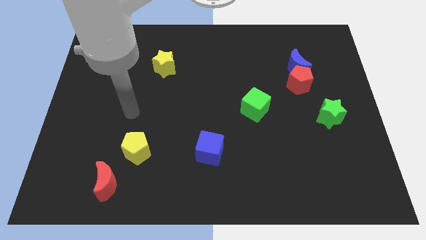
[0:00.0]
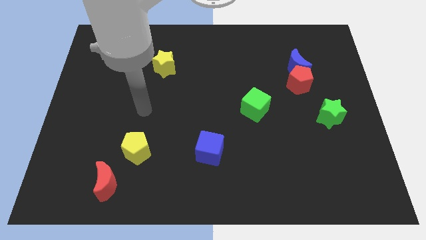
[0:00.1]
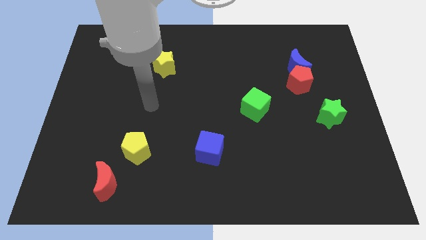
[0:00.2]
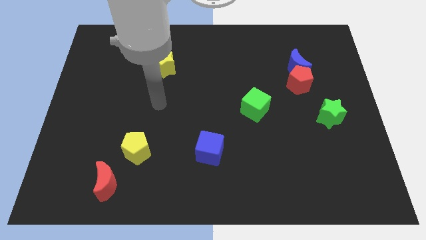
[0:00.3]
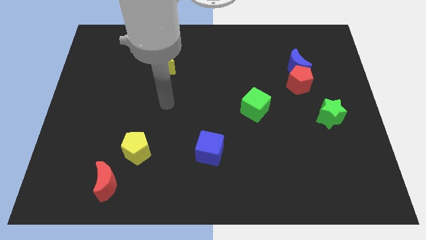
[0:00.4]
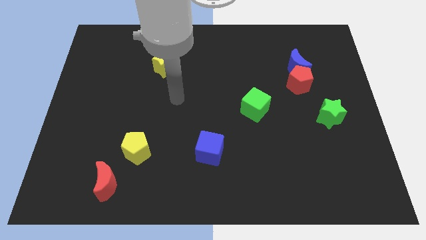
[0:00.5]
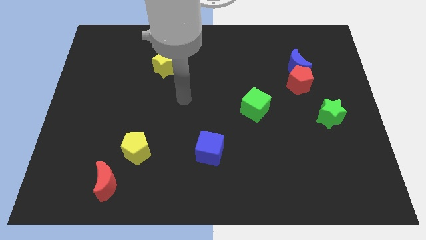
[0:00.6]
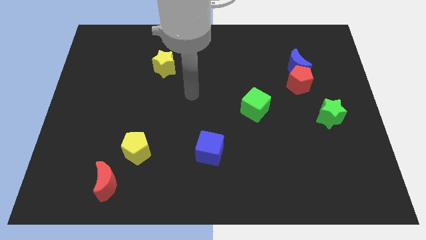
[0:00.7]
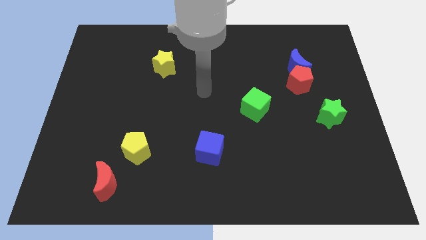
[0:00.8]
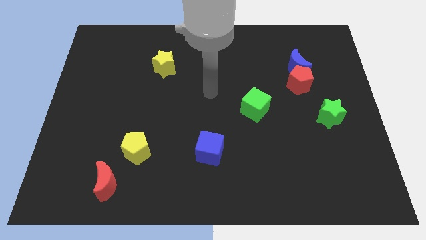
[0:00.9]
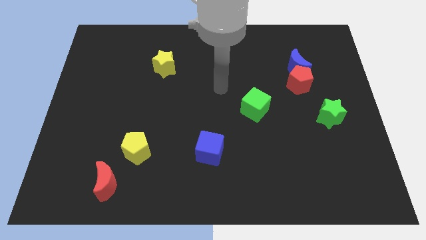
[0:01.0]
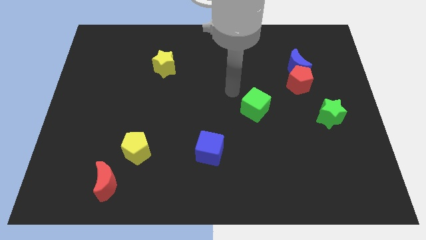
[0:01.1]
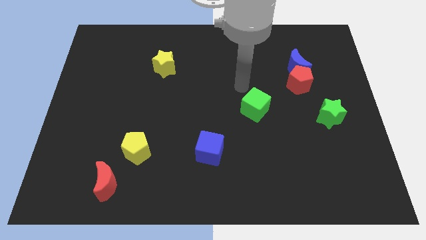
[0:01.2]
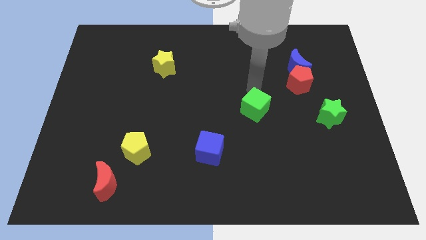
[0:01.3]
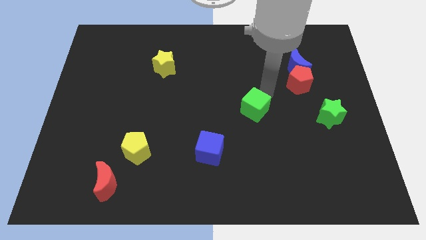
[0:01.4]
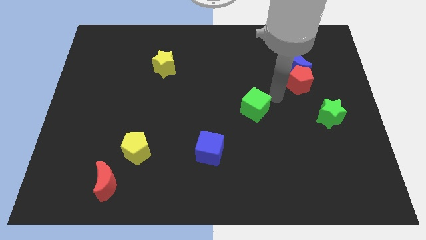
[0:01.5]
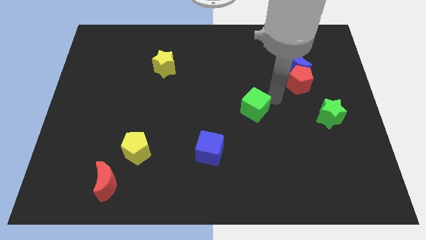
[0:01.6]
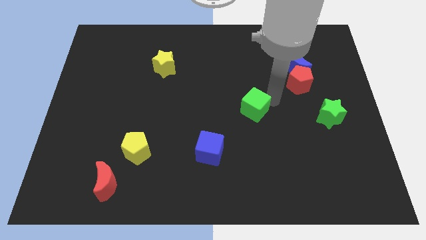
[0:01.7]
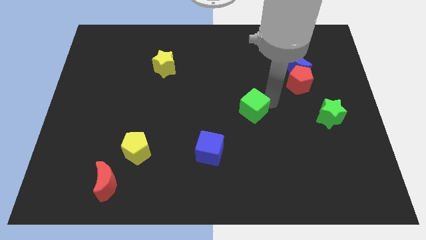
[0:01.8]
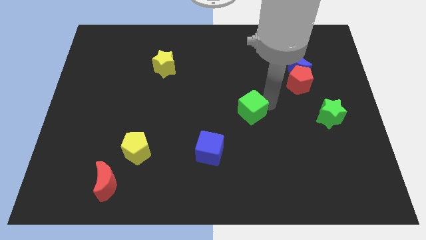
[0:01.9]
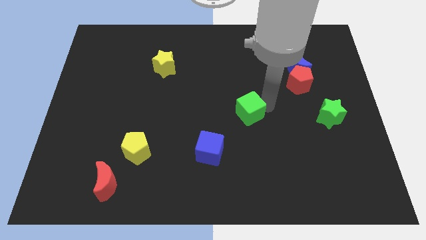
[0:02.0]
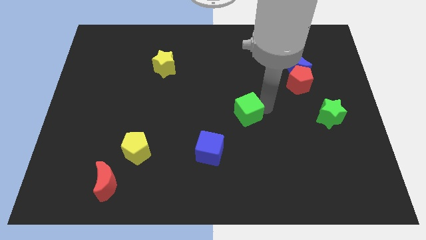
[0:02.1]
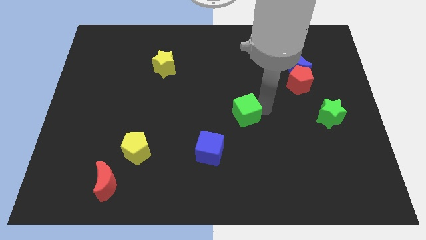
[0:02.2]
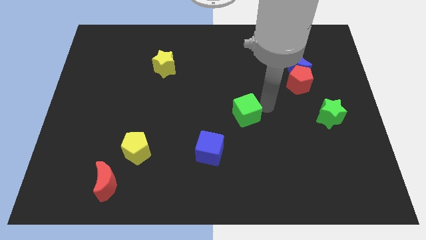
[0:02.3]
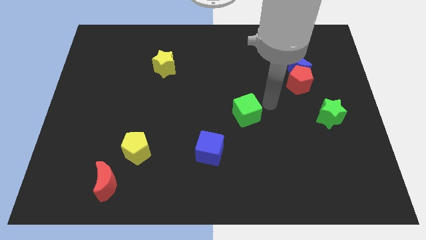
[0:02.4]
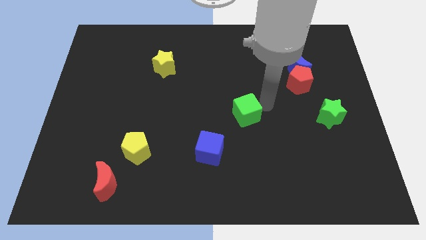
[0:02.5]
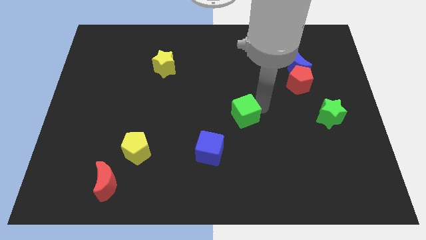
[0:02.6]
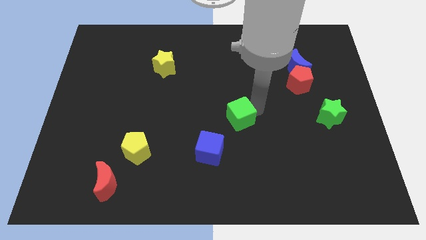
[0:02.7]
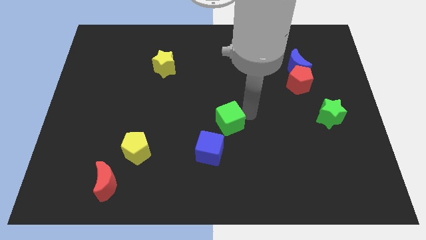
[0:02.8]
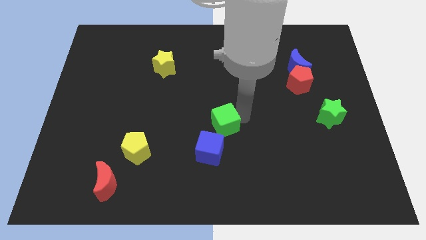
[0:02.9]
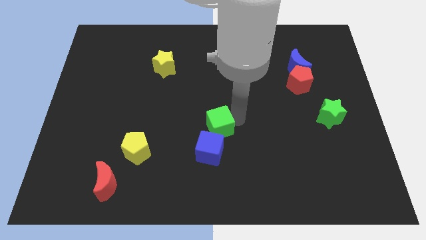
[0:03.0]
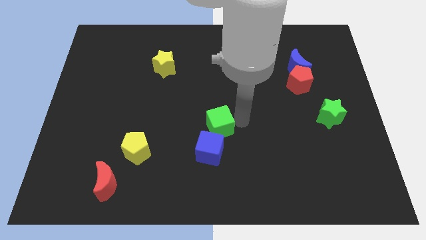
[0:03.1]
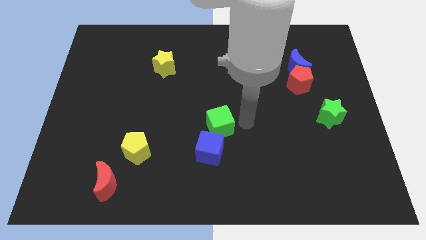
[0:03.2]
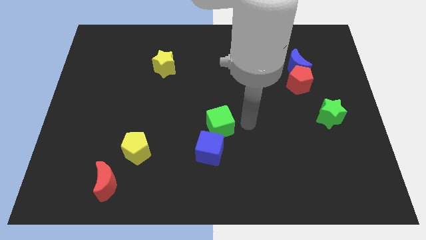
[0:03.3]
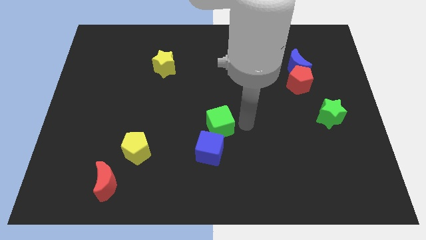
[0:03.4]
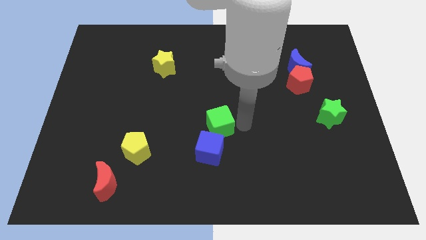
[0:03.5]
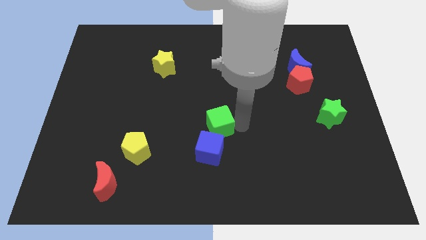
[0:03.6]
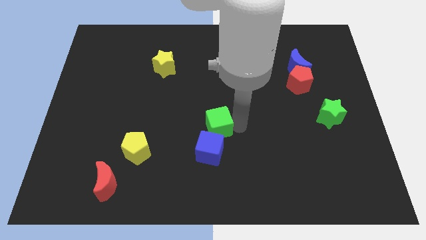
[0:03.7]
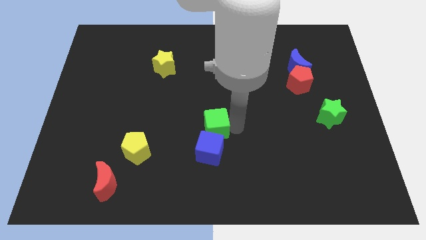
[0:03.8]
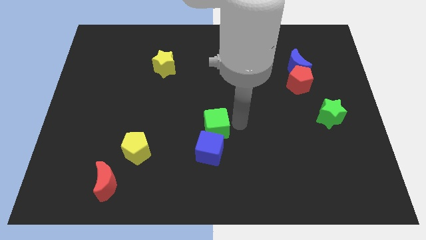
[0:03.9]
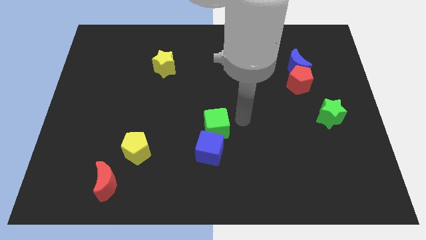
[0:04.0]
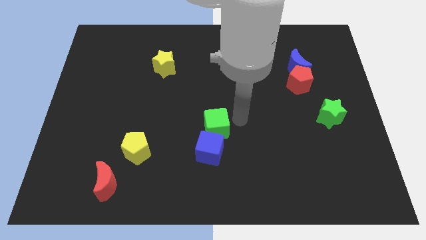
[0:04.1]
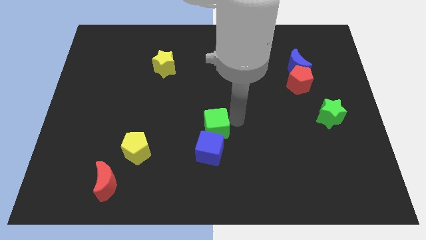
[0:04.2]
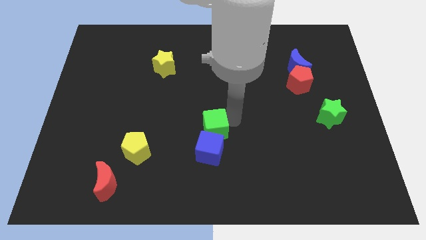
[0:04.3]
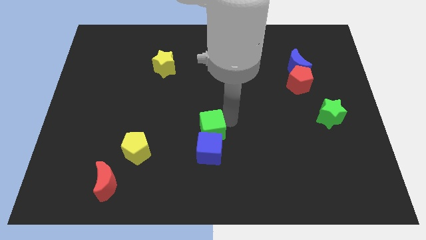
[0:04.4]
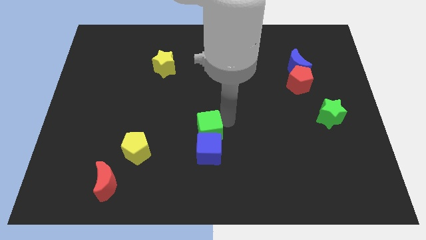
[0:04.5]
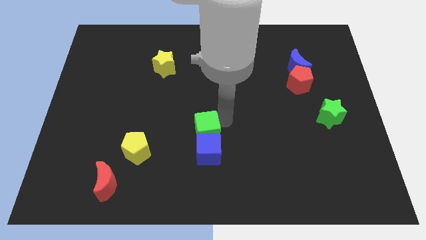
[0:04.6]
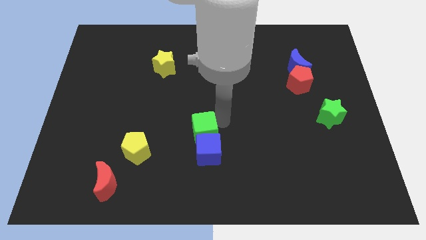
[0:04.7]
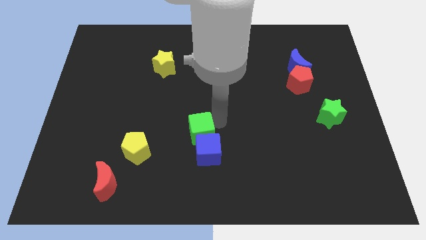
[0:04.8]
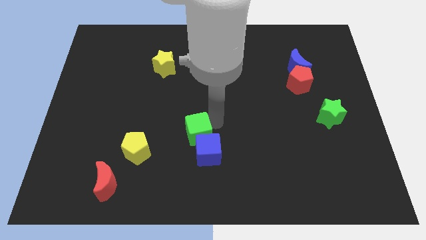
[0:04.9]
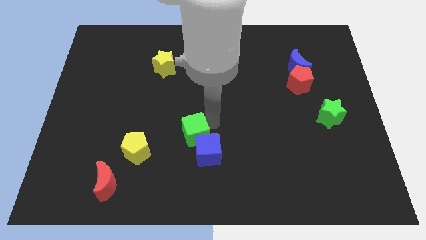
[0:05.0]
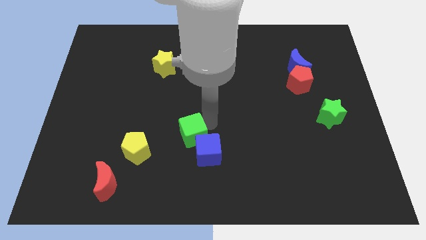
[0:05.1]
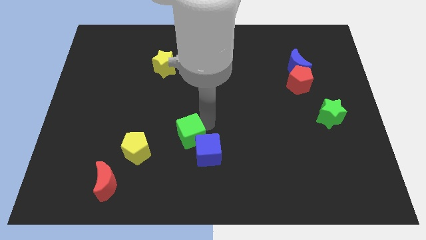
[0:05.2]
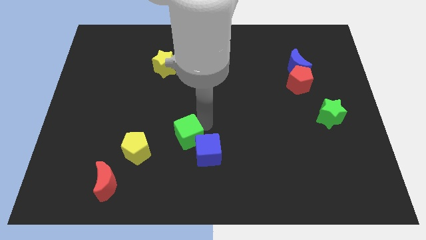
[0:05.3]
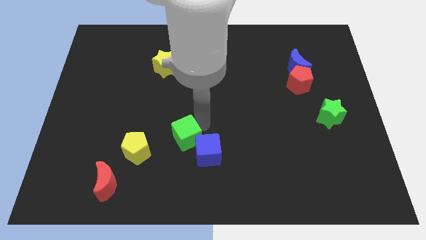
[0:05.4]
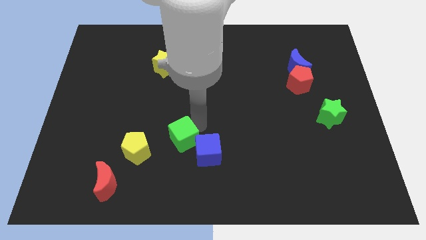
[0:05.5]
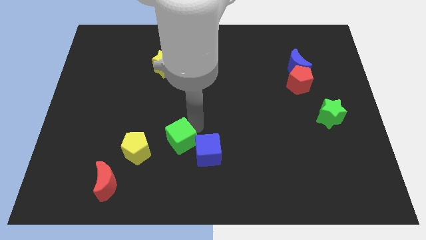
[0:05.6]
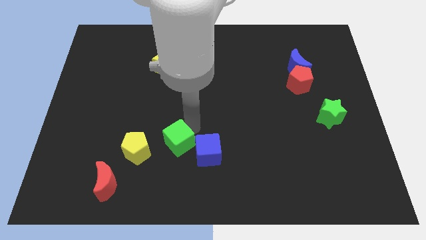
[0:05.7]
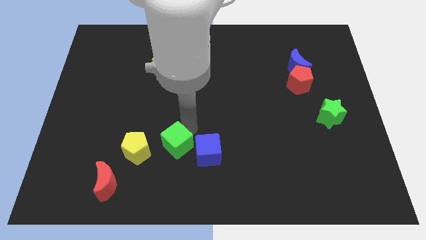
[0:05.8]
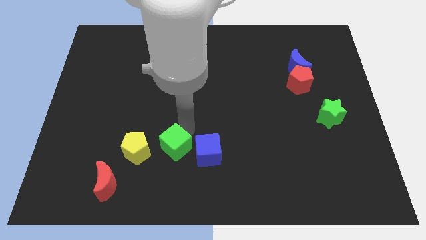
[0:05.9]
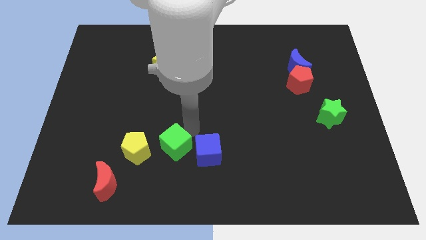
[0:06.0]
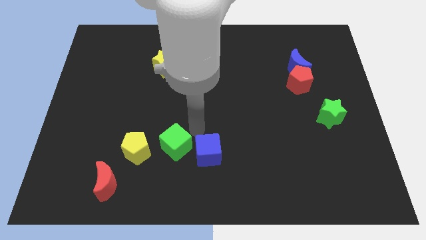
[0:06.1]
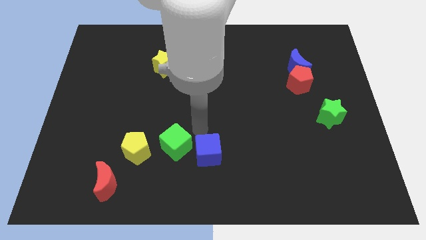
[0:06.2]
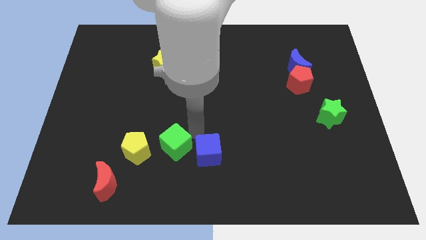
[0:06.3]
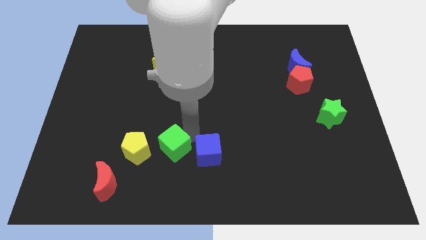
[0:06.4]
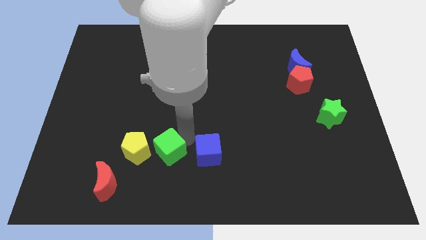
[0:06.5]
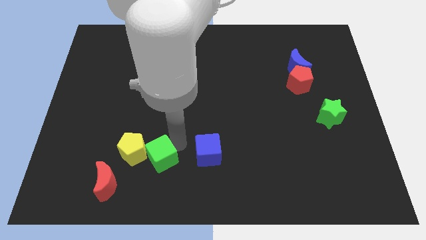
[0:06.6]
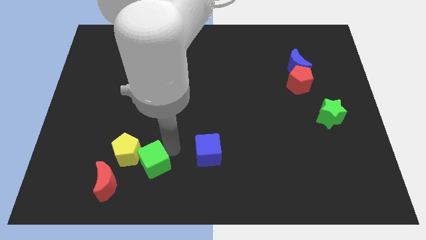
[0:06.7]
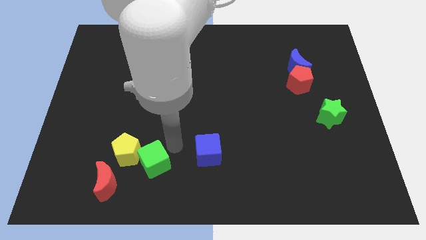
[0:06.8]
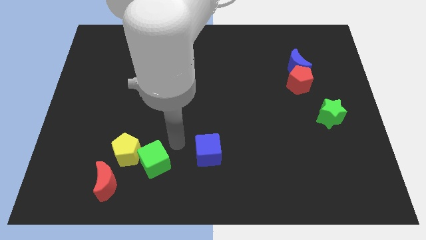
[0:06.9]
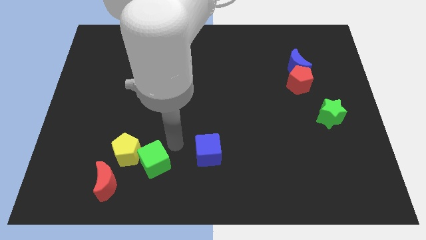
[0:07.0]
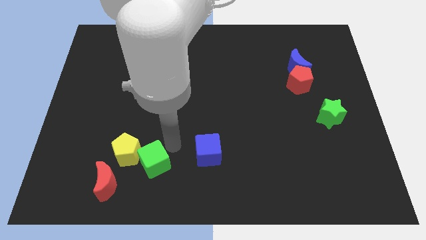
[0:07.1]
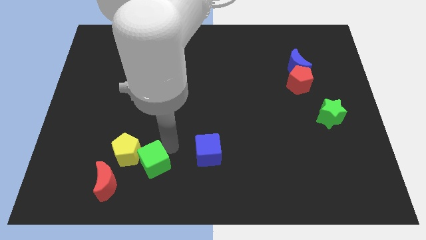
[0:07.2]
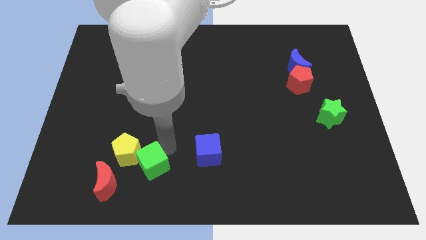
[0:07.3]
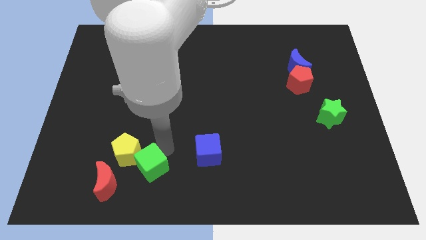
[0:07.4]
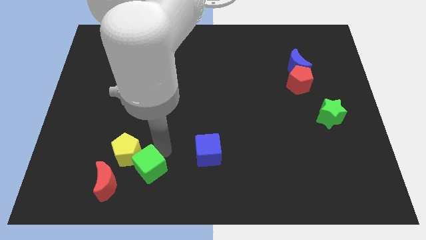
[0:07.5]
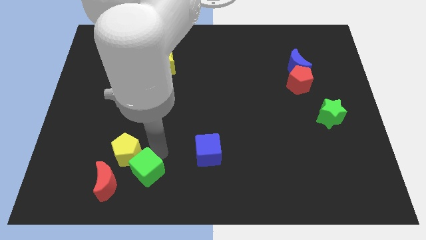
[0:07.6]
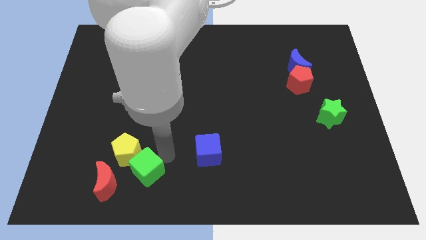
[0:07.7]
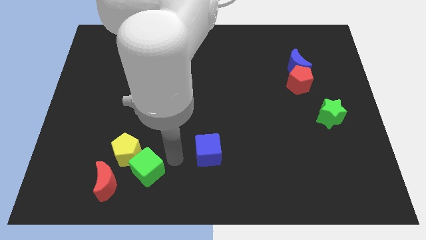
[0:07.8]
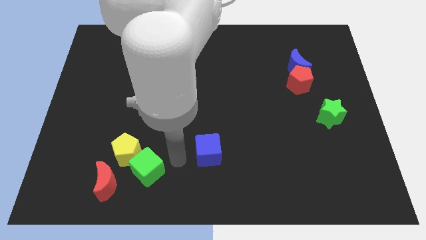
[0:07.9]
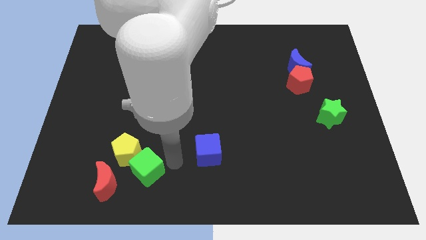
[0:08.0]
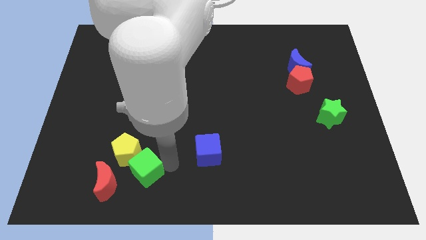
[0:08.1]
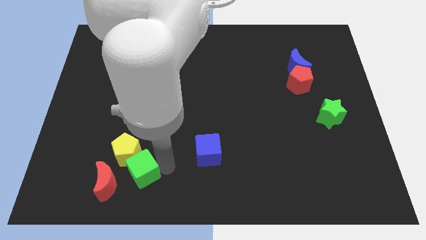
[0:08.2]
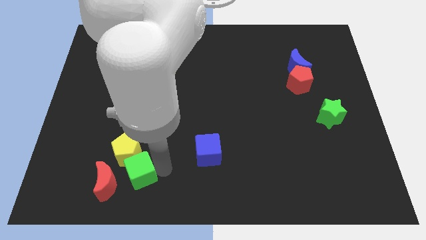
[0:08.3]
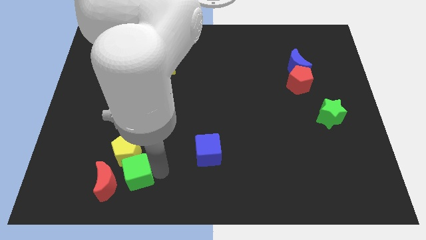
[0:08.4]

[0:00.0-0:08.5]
move the green cube next to the red moon
